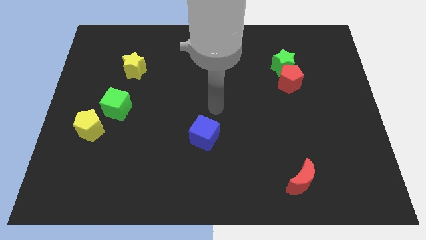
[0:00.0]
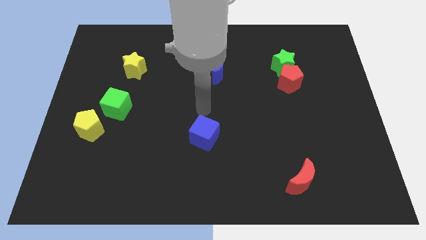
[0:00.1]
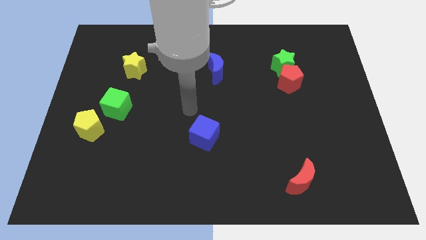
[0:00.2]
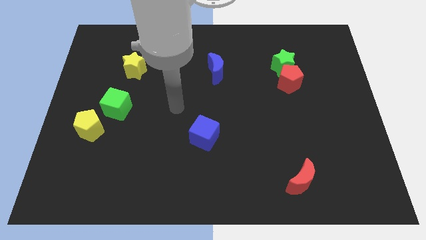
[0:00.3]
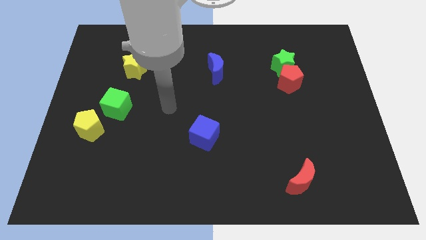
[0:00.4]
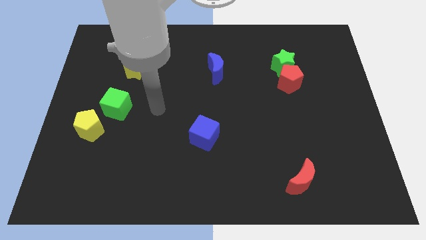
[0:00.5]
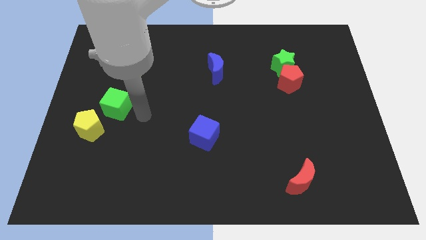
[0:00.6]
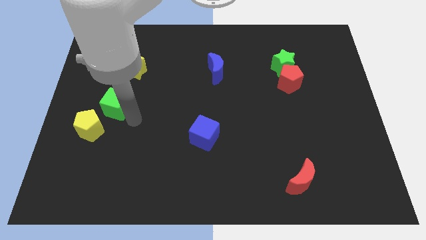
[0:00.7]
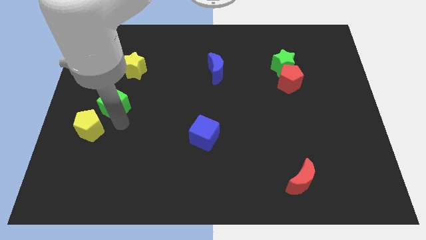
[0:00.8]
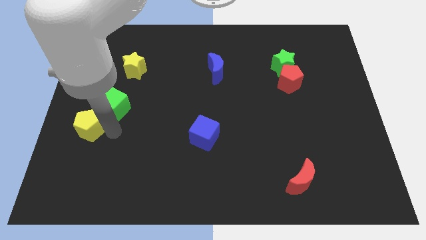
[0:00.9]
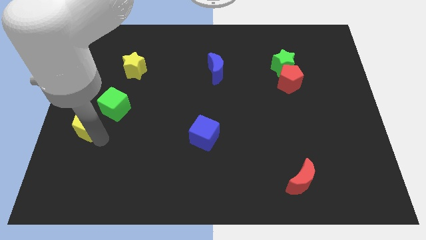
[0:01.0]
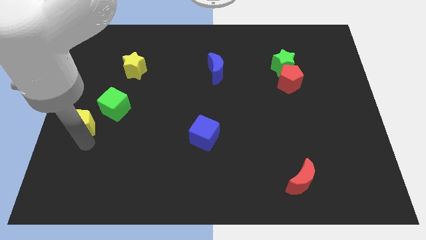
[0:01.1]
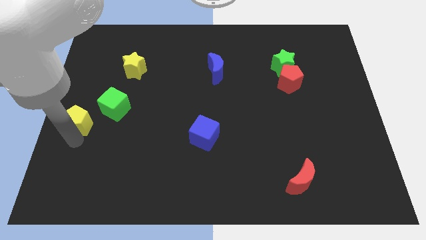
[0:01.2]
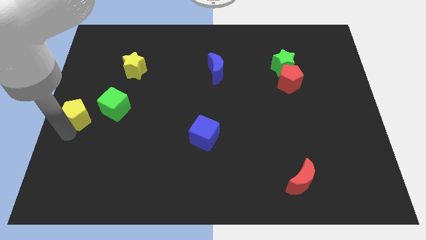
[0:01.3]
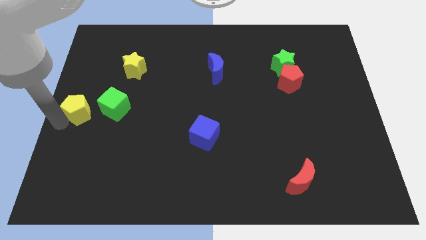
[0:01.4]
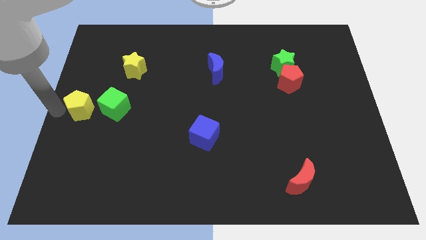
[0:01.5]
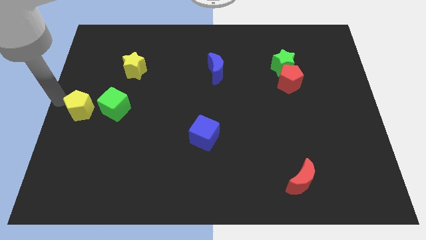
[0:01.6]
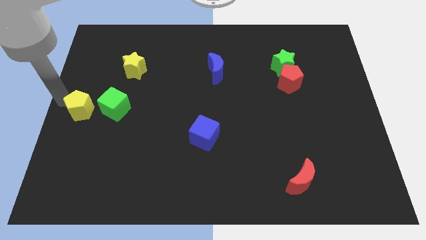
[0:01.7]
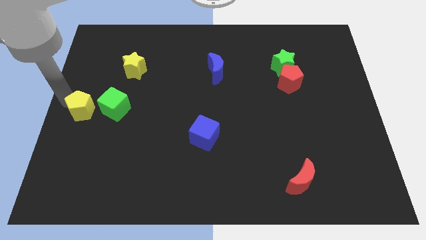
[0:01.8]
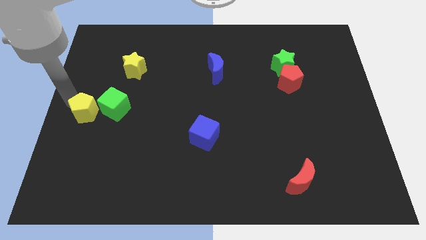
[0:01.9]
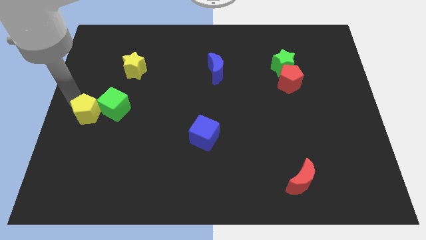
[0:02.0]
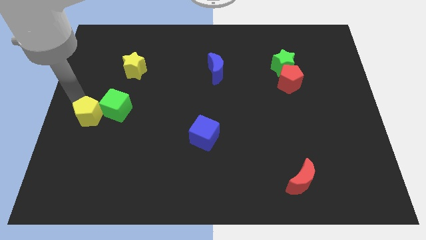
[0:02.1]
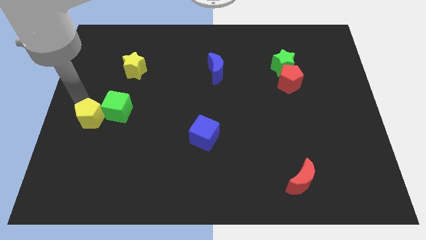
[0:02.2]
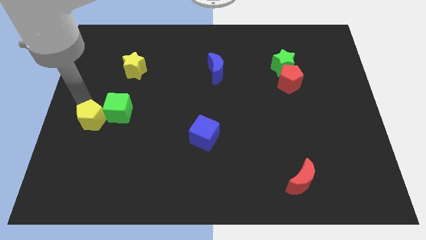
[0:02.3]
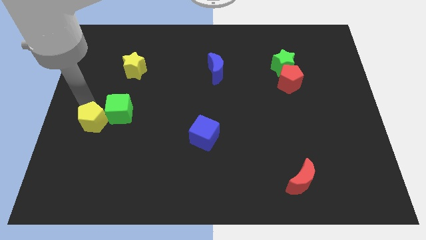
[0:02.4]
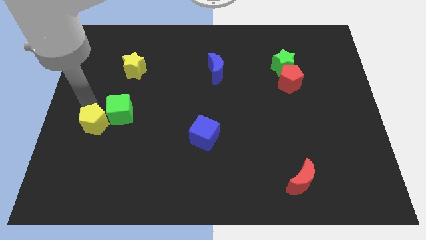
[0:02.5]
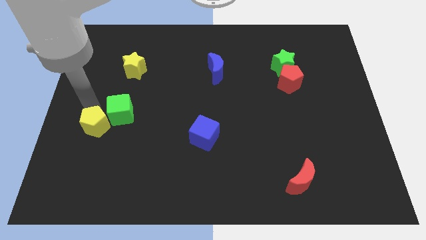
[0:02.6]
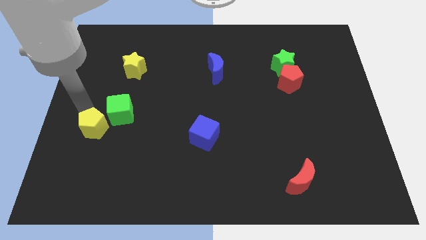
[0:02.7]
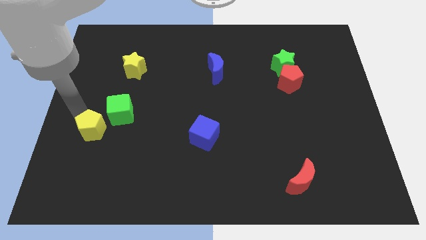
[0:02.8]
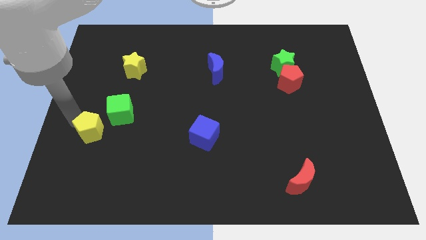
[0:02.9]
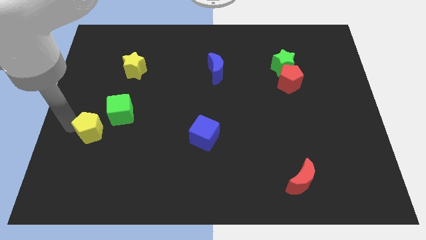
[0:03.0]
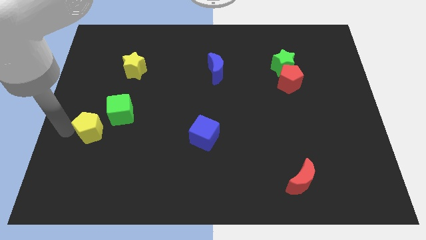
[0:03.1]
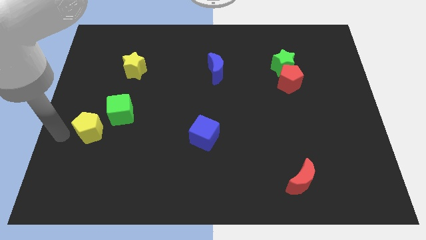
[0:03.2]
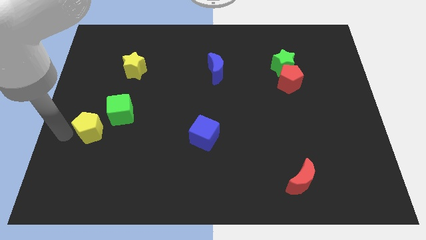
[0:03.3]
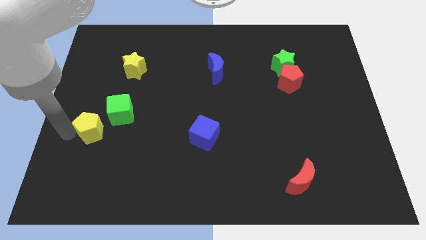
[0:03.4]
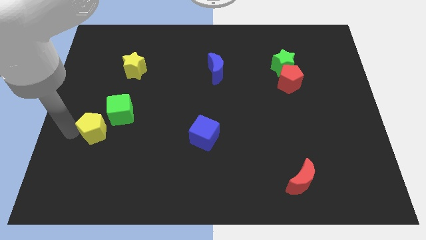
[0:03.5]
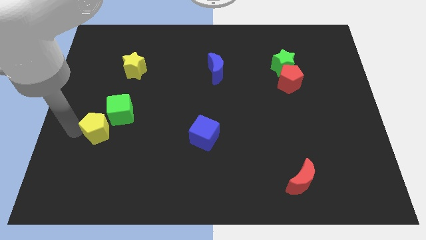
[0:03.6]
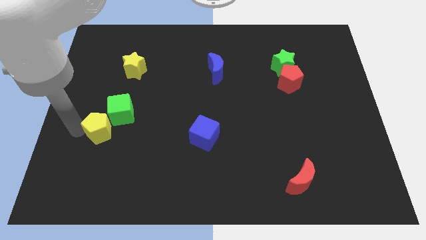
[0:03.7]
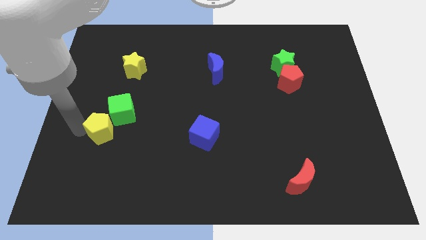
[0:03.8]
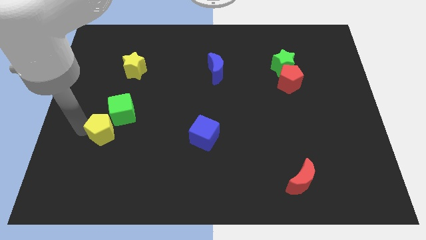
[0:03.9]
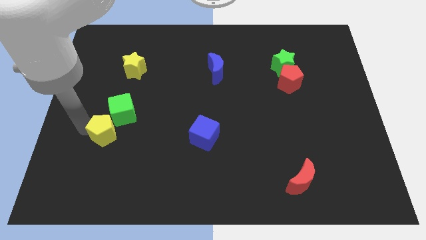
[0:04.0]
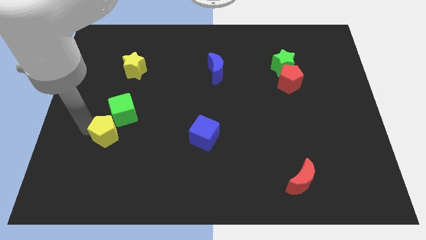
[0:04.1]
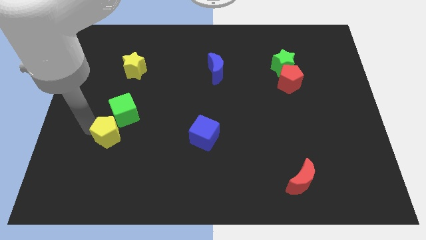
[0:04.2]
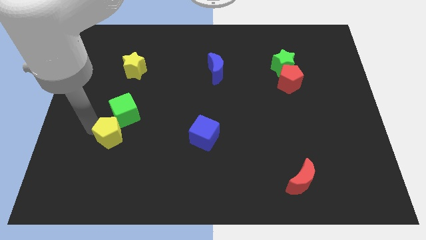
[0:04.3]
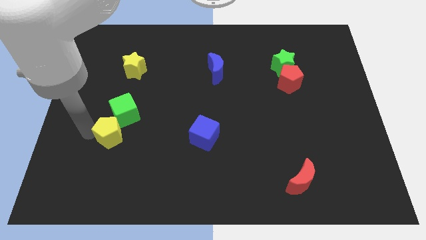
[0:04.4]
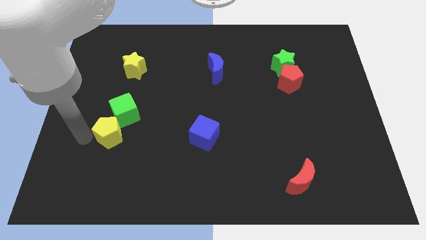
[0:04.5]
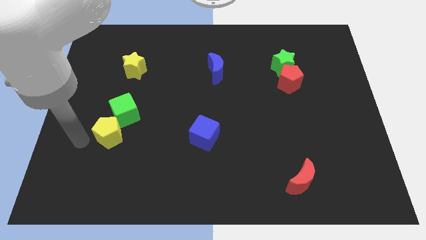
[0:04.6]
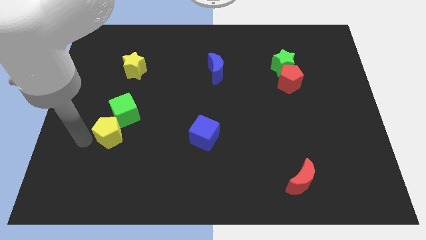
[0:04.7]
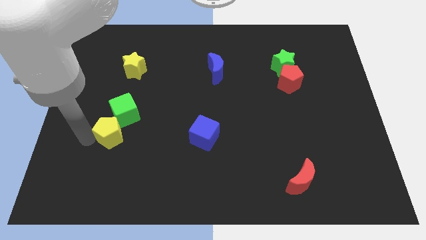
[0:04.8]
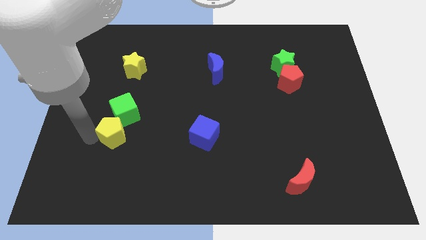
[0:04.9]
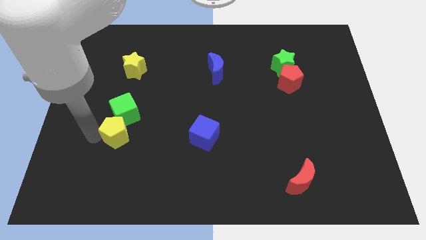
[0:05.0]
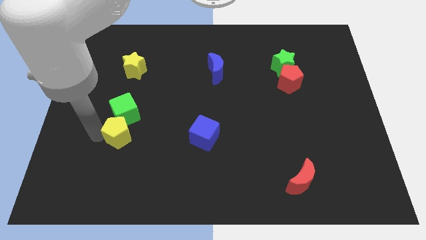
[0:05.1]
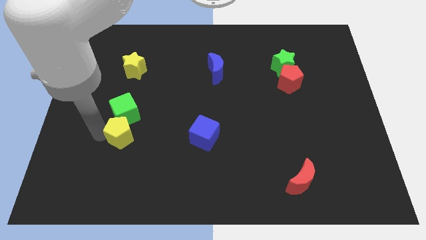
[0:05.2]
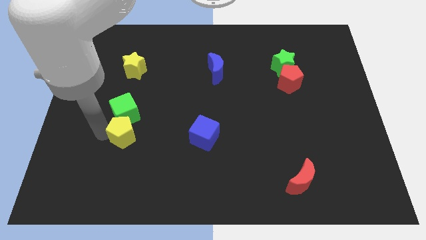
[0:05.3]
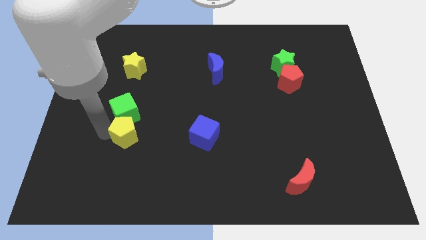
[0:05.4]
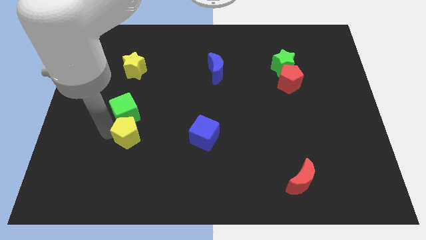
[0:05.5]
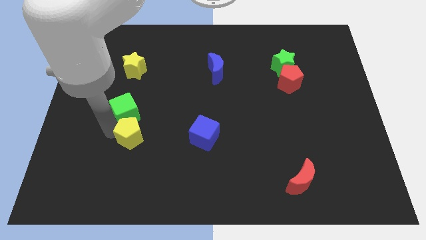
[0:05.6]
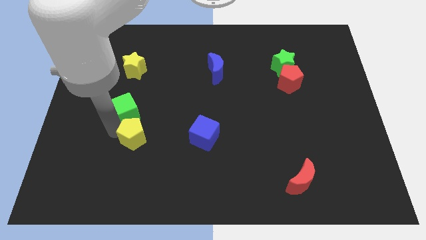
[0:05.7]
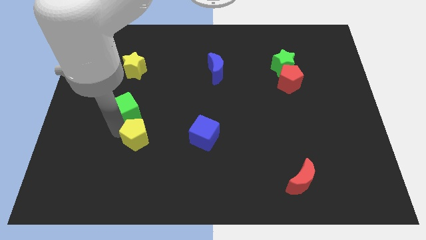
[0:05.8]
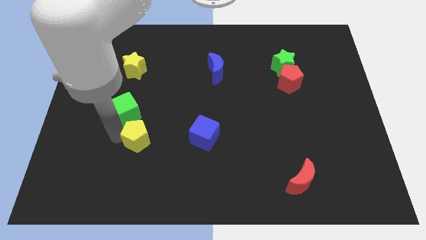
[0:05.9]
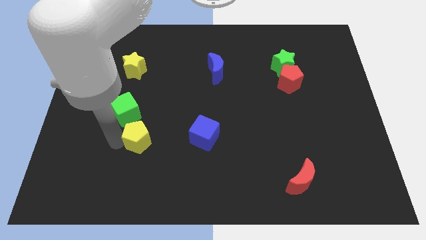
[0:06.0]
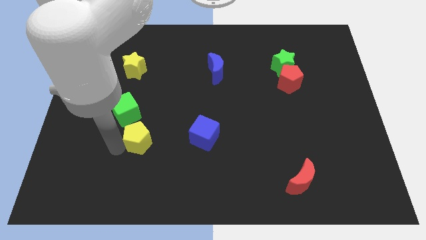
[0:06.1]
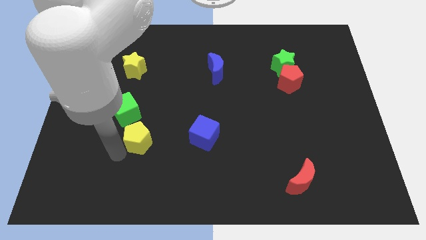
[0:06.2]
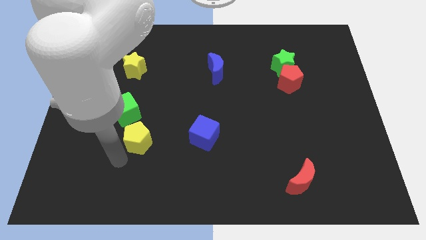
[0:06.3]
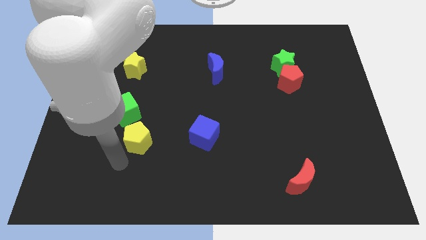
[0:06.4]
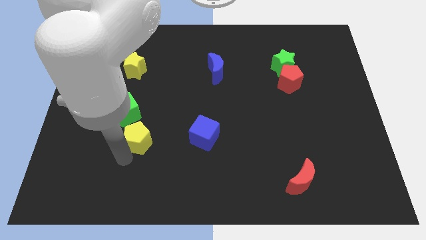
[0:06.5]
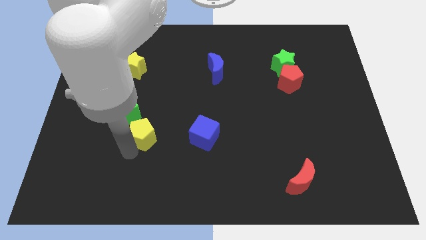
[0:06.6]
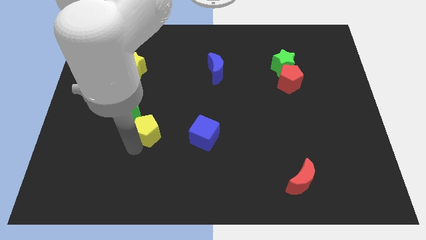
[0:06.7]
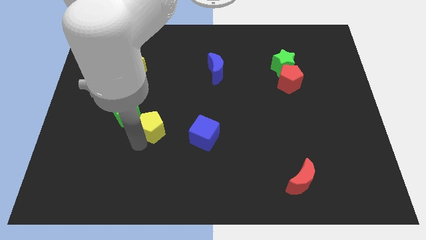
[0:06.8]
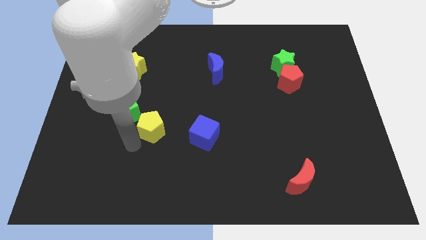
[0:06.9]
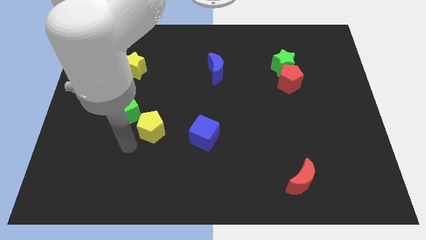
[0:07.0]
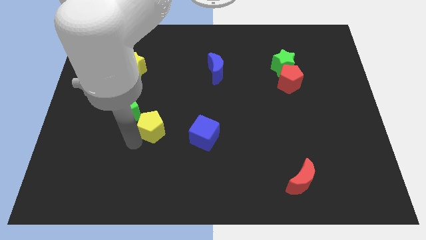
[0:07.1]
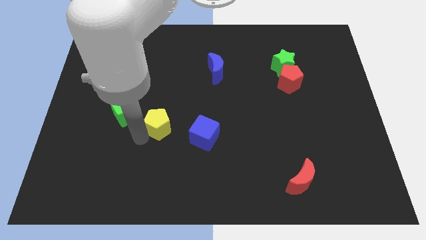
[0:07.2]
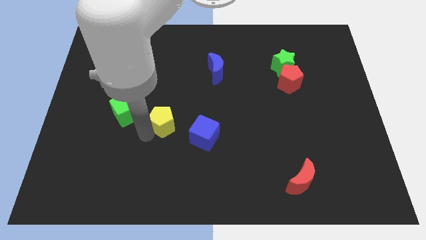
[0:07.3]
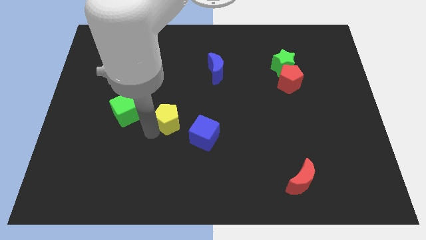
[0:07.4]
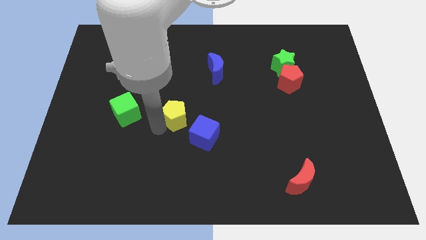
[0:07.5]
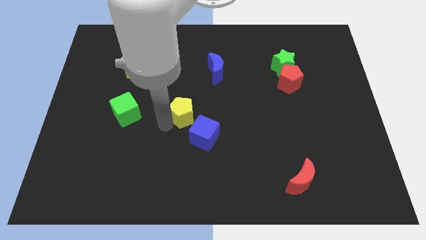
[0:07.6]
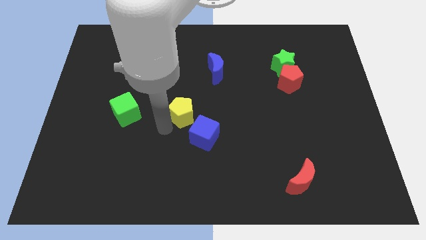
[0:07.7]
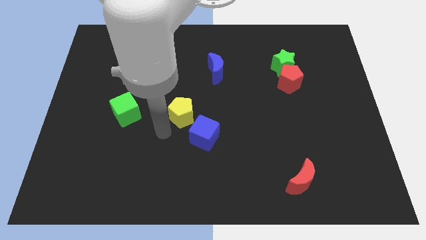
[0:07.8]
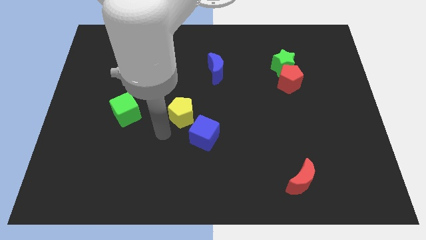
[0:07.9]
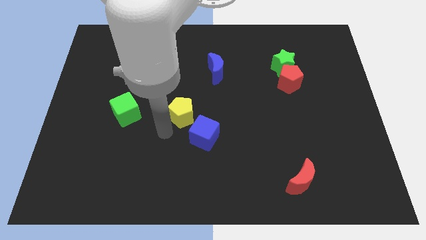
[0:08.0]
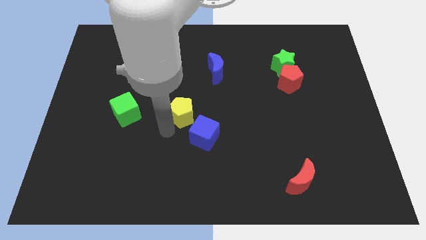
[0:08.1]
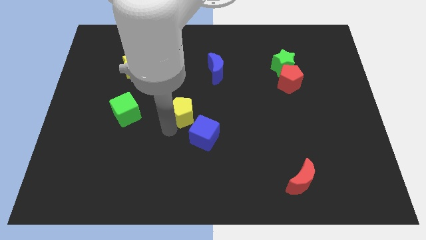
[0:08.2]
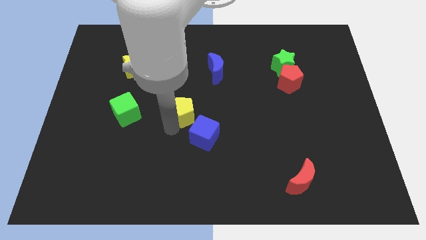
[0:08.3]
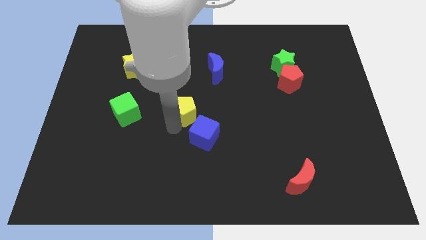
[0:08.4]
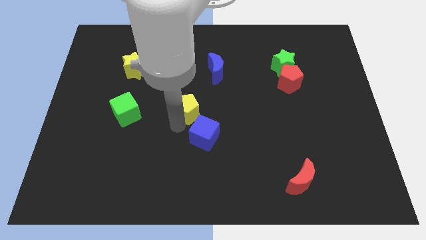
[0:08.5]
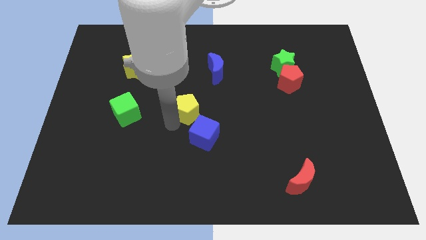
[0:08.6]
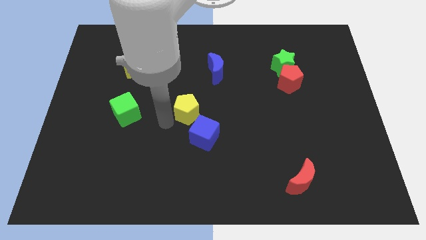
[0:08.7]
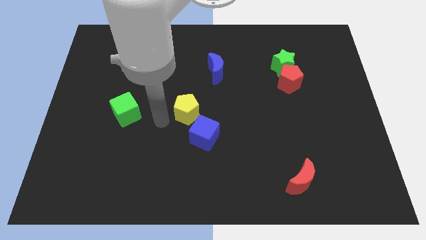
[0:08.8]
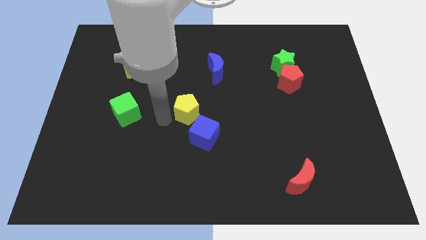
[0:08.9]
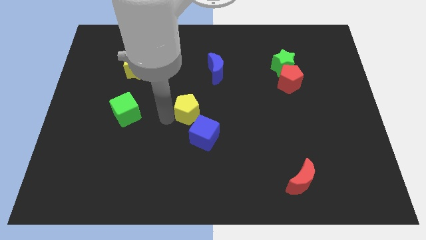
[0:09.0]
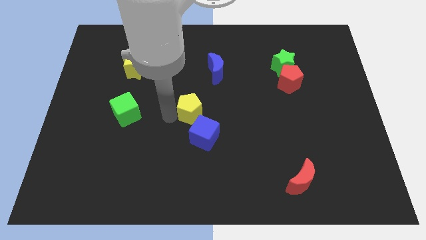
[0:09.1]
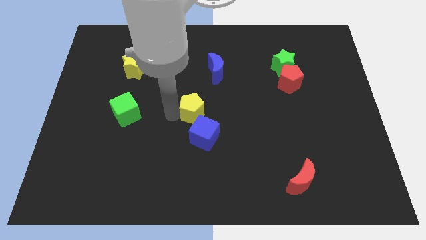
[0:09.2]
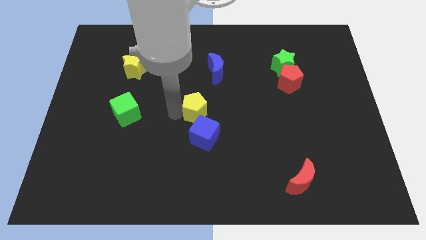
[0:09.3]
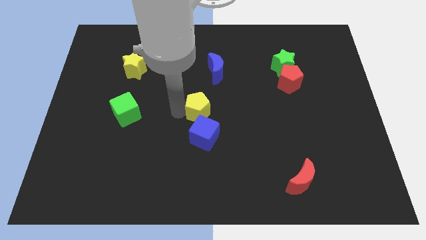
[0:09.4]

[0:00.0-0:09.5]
push the yellow pentagon to the bottom of the blue moon
